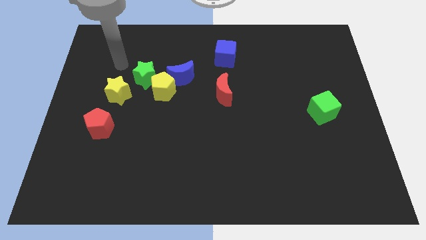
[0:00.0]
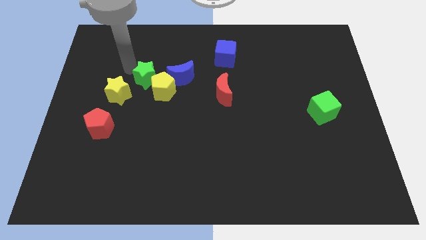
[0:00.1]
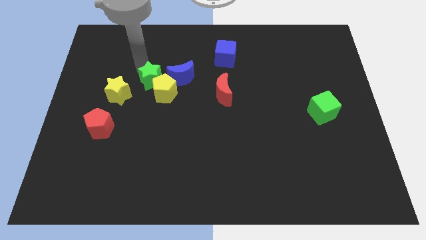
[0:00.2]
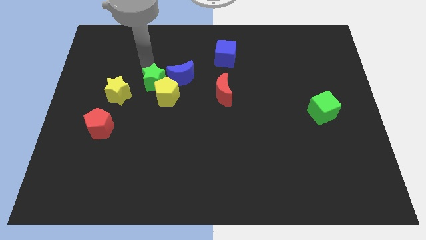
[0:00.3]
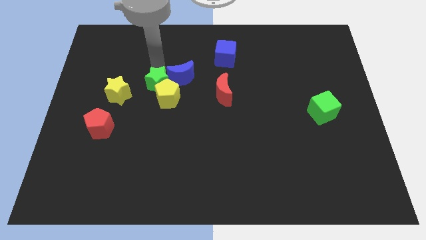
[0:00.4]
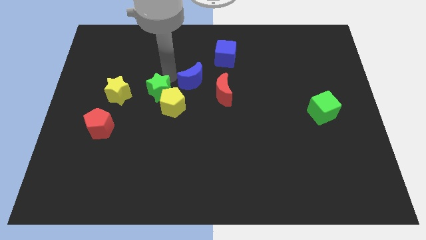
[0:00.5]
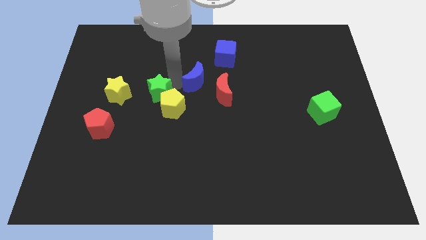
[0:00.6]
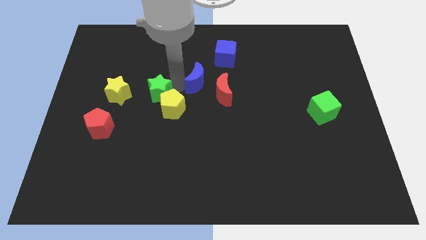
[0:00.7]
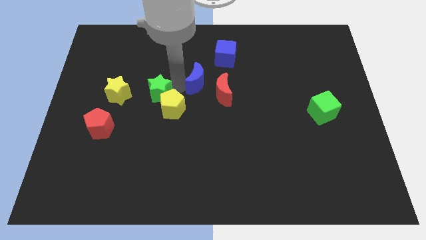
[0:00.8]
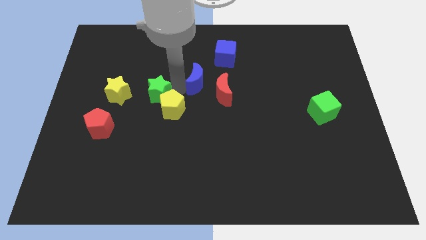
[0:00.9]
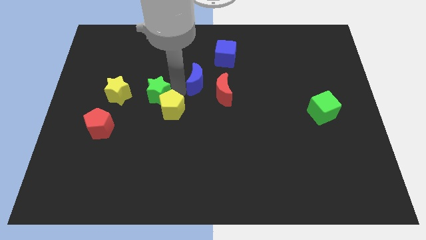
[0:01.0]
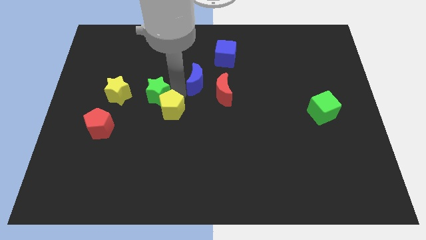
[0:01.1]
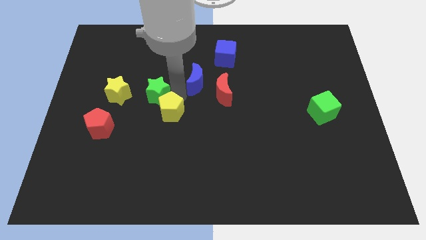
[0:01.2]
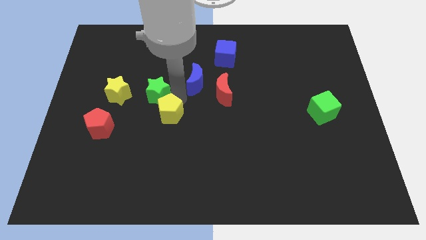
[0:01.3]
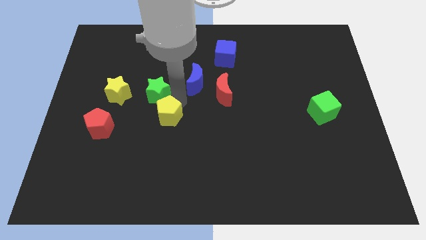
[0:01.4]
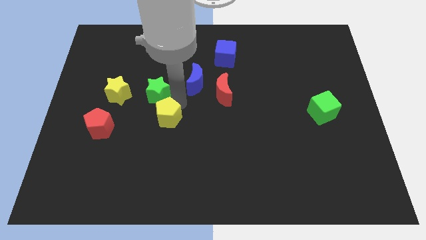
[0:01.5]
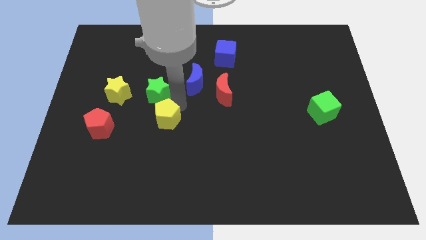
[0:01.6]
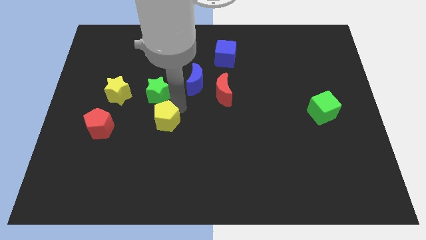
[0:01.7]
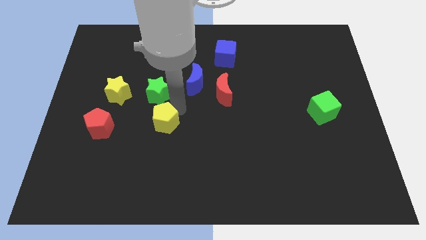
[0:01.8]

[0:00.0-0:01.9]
move the yellow pentagon away from the blue moon and green star

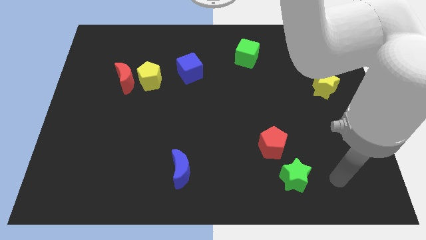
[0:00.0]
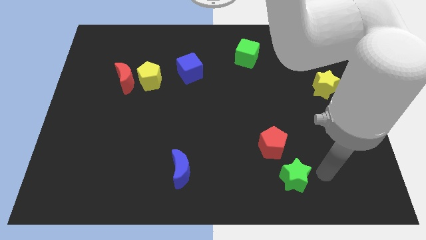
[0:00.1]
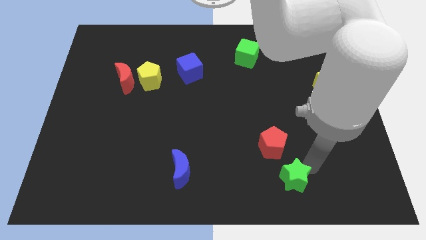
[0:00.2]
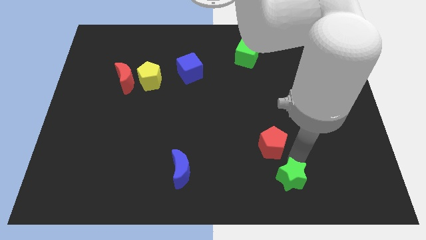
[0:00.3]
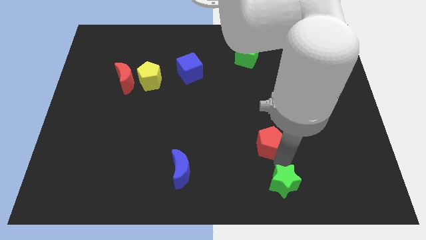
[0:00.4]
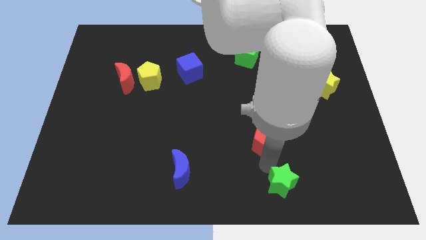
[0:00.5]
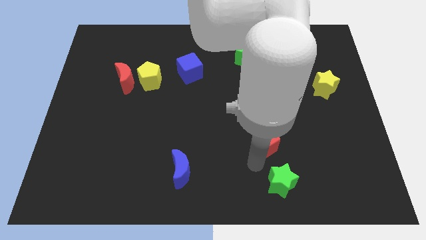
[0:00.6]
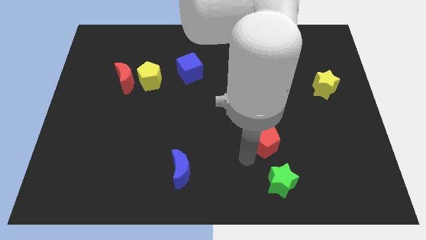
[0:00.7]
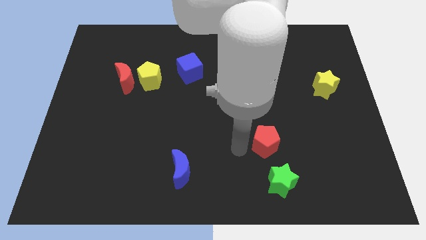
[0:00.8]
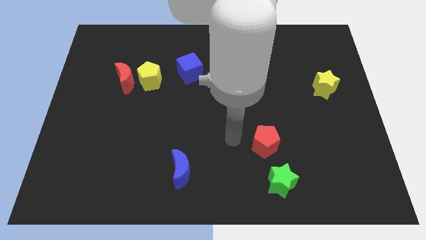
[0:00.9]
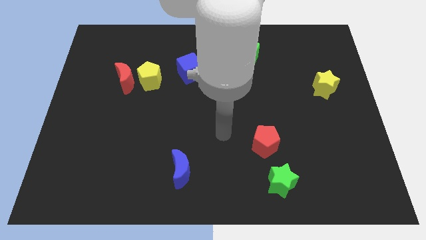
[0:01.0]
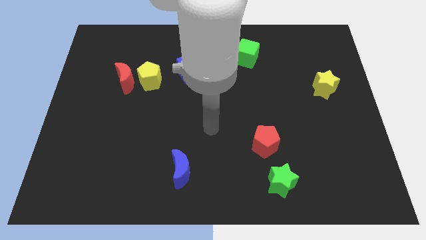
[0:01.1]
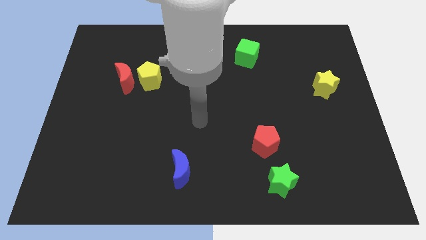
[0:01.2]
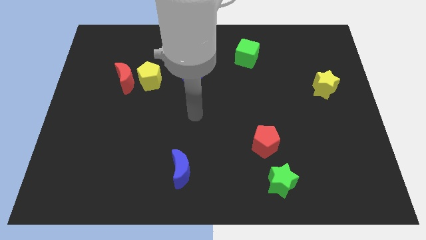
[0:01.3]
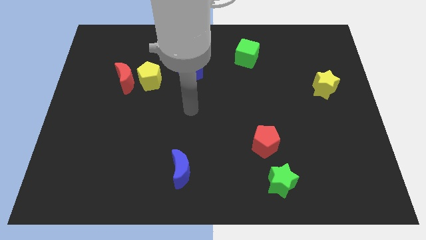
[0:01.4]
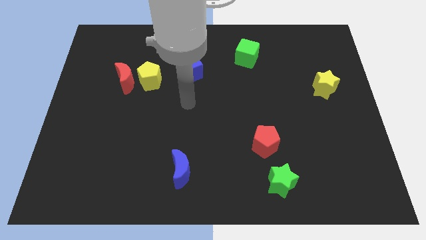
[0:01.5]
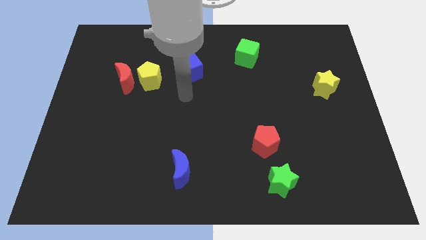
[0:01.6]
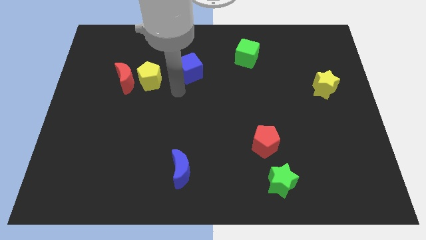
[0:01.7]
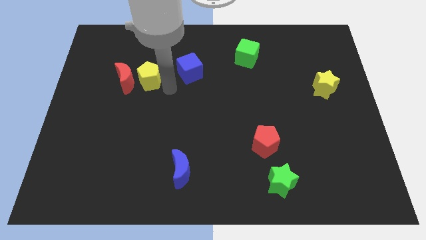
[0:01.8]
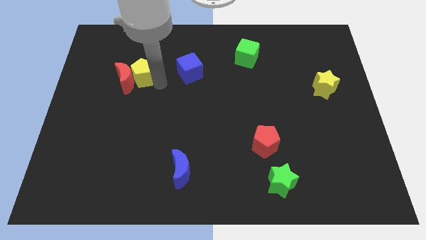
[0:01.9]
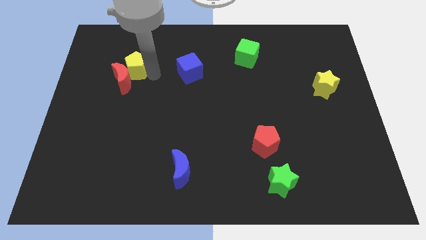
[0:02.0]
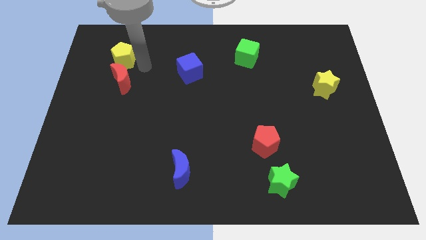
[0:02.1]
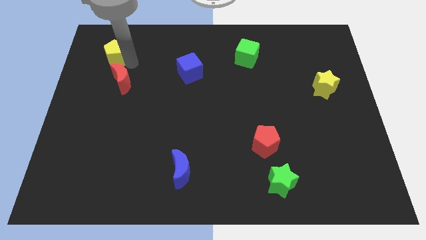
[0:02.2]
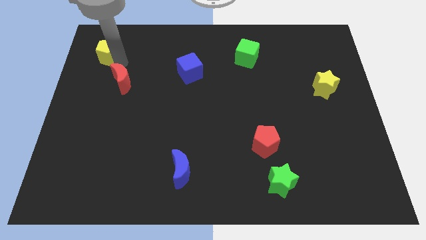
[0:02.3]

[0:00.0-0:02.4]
separate the red moon from the yellow pentagon

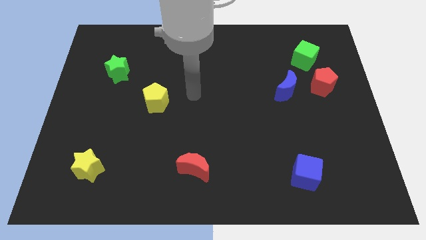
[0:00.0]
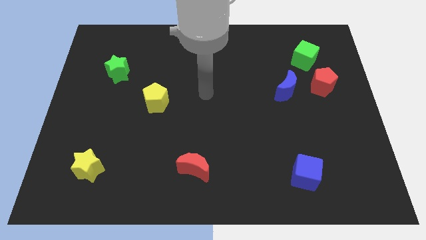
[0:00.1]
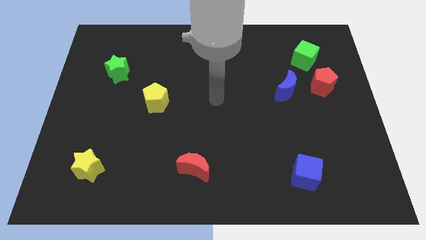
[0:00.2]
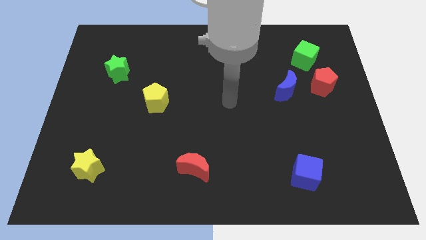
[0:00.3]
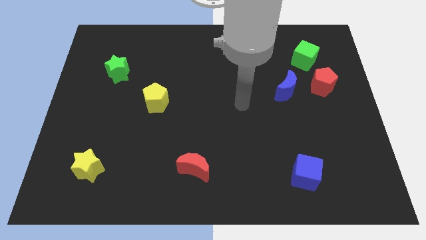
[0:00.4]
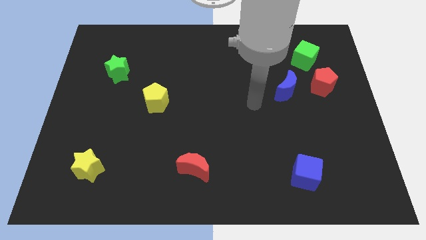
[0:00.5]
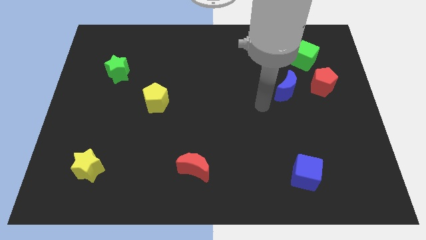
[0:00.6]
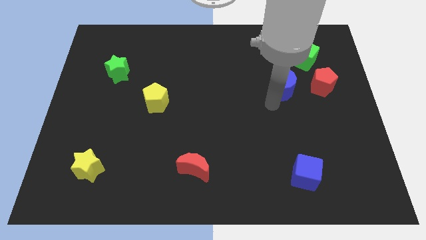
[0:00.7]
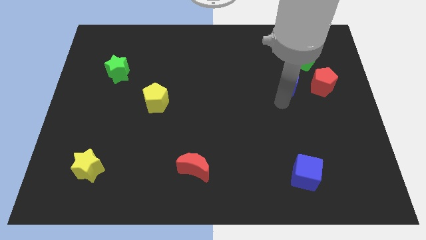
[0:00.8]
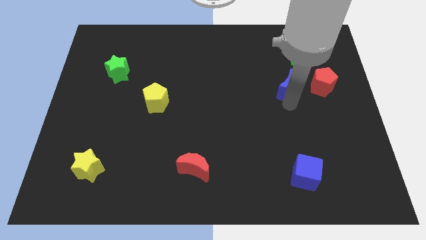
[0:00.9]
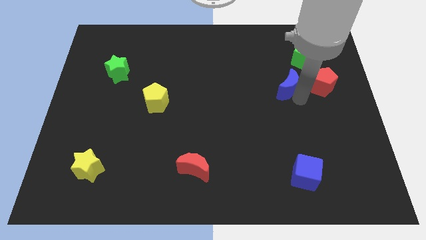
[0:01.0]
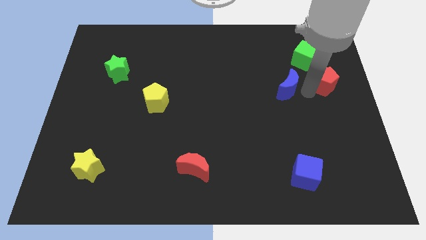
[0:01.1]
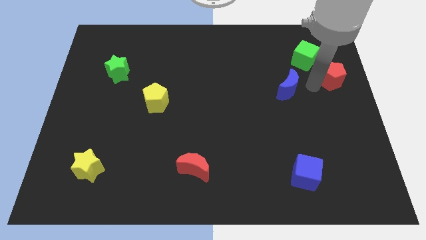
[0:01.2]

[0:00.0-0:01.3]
pull the blue moon apart from the red pentagon

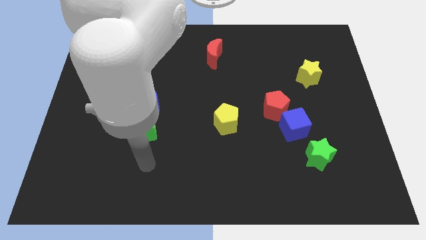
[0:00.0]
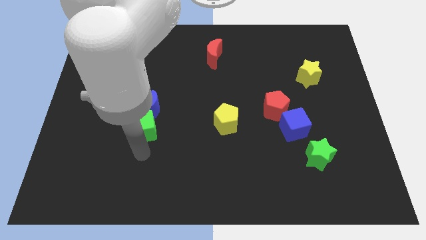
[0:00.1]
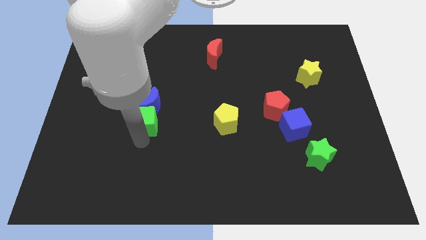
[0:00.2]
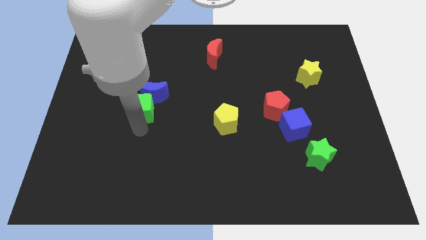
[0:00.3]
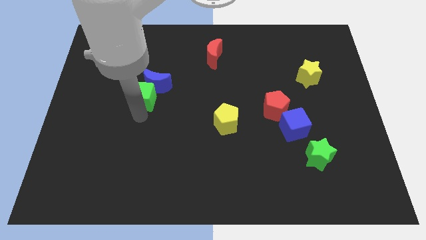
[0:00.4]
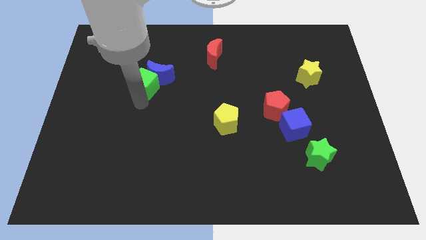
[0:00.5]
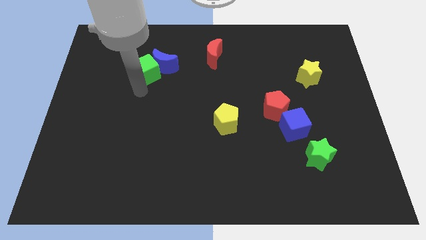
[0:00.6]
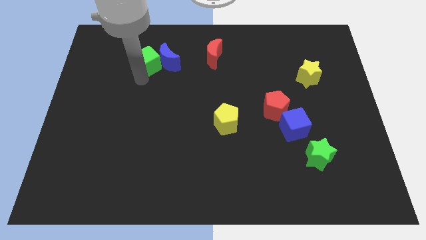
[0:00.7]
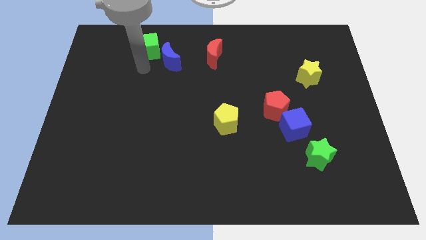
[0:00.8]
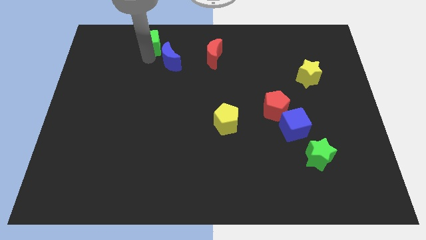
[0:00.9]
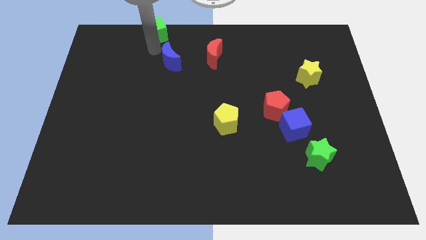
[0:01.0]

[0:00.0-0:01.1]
pull the blue moon apart from the green cube

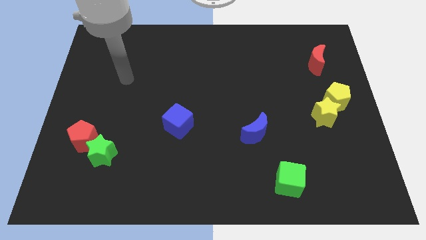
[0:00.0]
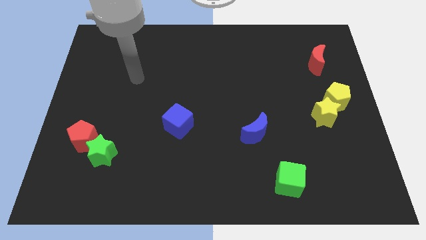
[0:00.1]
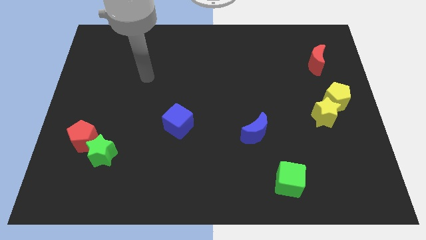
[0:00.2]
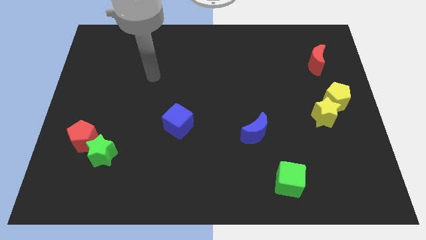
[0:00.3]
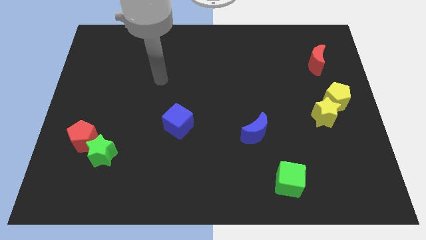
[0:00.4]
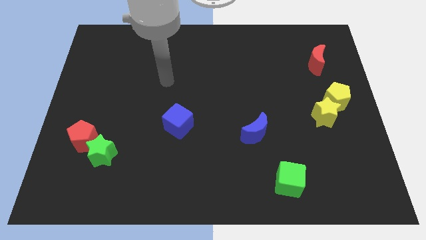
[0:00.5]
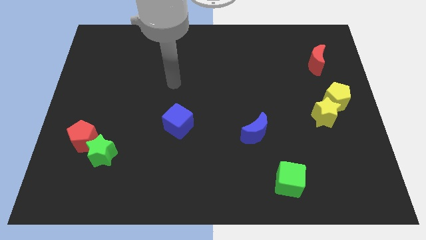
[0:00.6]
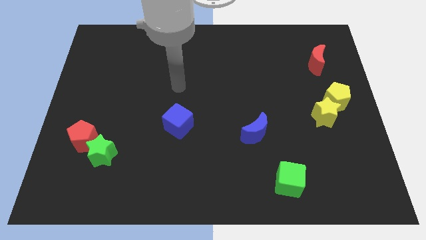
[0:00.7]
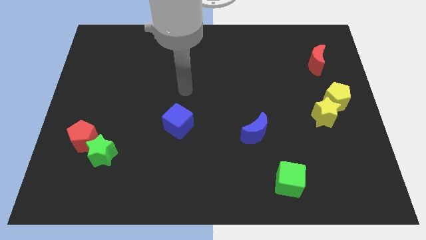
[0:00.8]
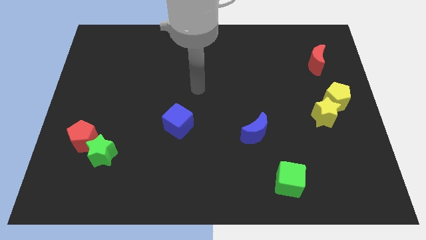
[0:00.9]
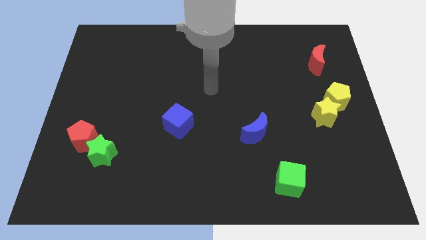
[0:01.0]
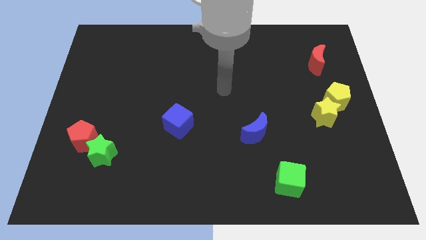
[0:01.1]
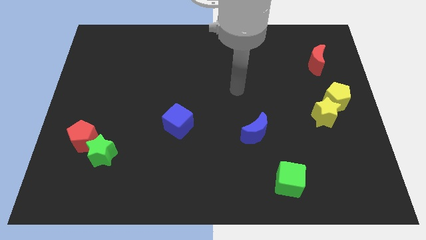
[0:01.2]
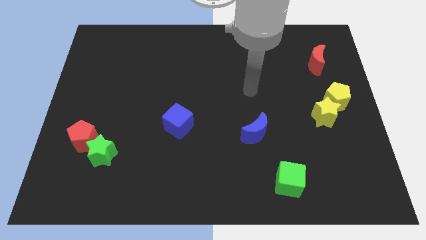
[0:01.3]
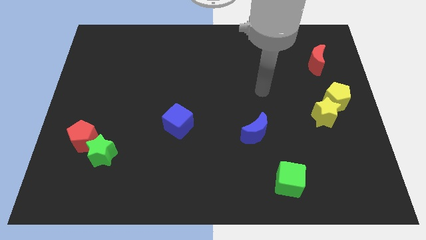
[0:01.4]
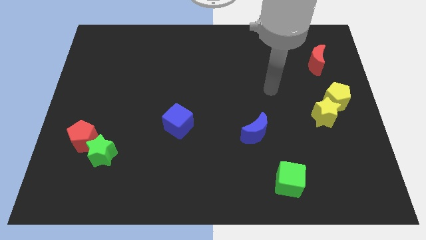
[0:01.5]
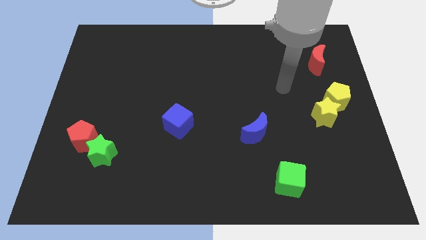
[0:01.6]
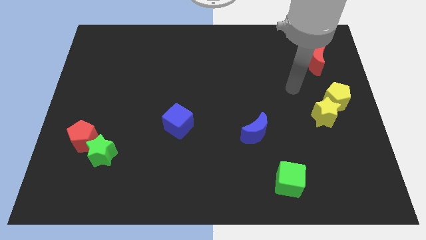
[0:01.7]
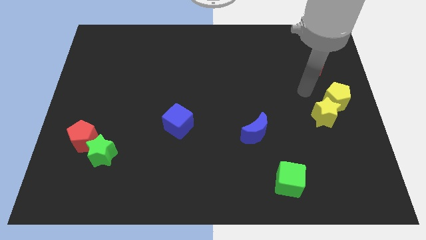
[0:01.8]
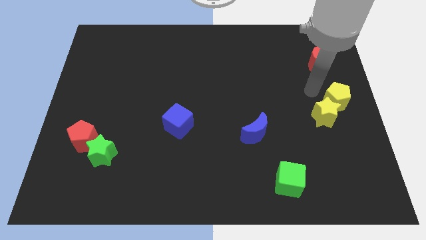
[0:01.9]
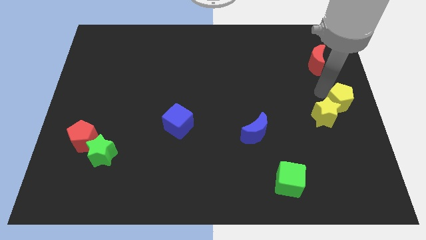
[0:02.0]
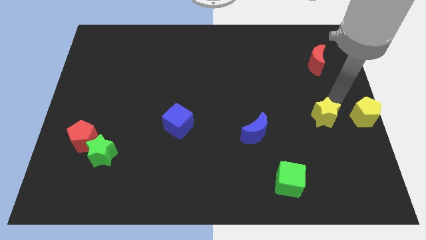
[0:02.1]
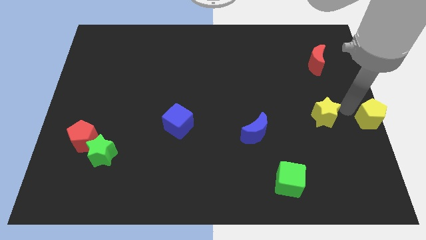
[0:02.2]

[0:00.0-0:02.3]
separate the yellow star from the yellow pentagon

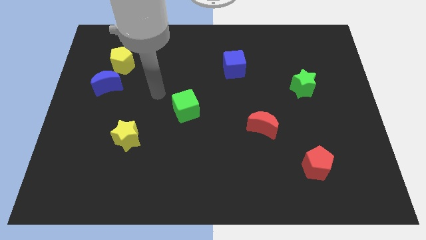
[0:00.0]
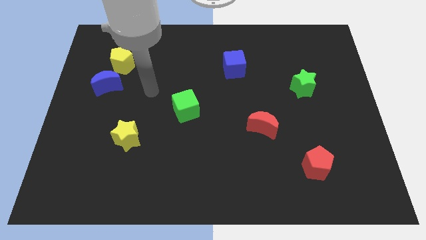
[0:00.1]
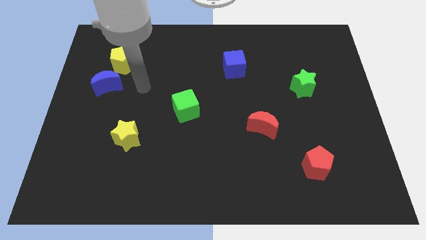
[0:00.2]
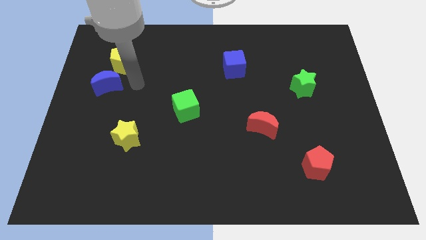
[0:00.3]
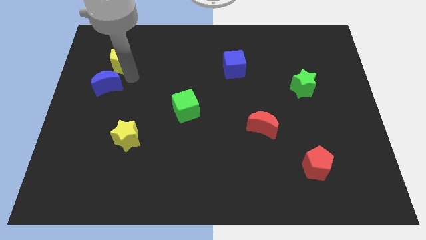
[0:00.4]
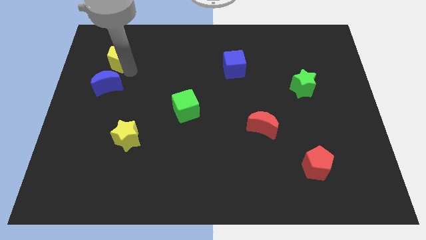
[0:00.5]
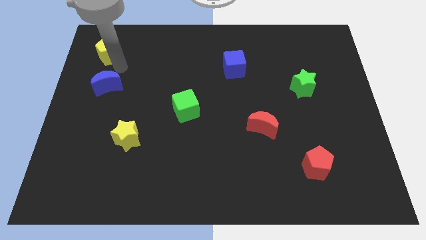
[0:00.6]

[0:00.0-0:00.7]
move the blue moon away from the yellow pentagon
